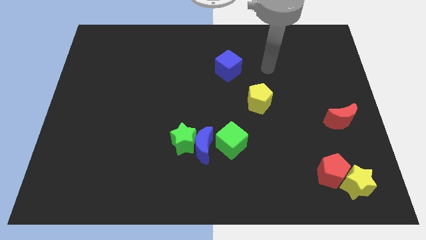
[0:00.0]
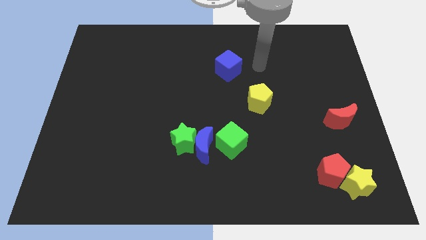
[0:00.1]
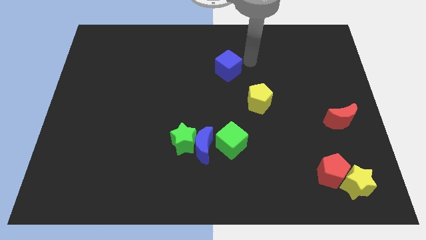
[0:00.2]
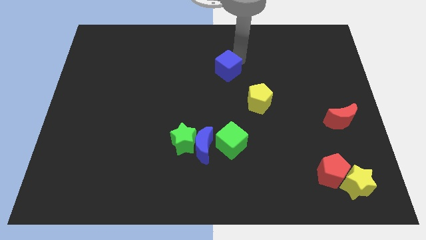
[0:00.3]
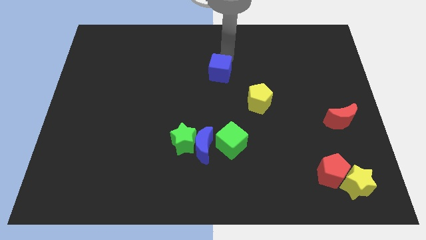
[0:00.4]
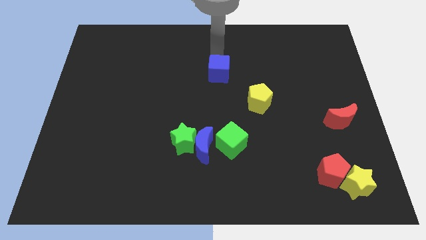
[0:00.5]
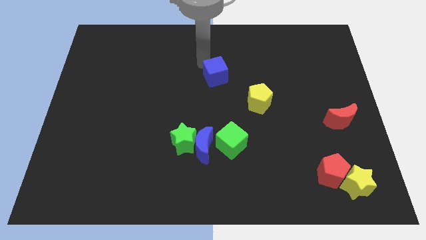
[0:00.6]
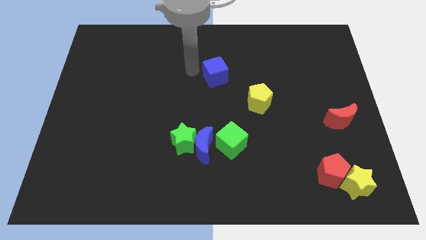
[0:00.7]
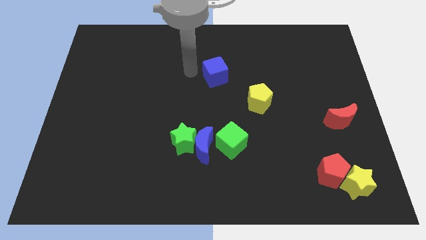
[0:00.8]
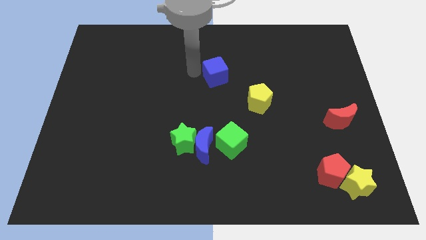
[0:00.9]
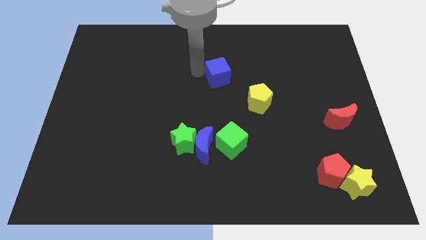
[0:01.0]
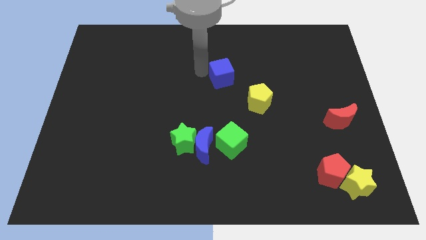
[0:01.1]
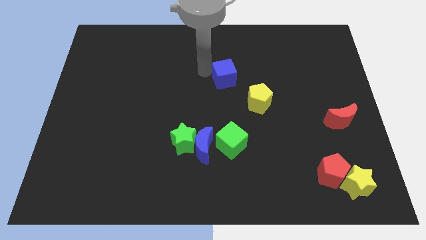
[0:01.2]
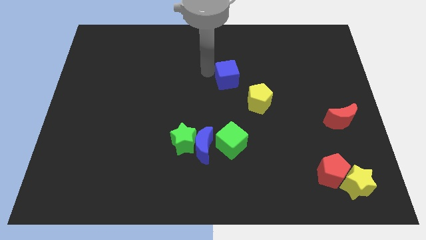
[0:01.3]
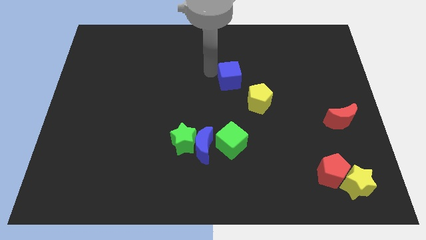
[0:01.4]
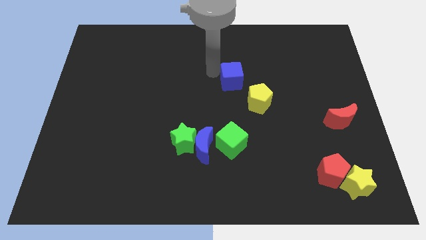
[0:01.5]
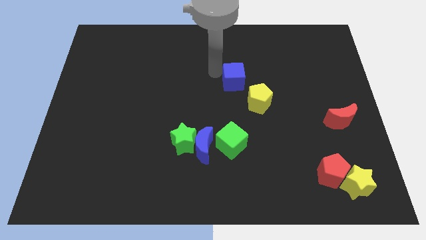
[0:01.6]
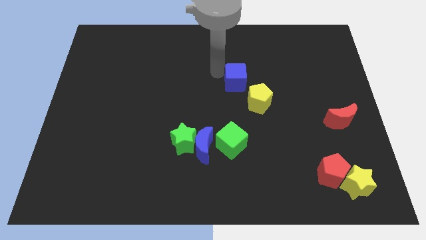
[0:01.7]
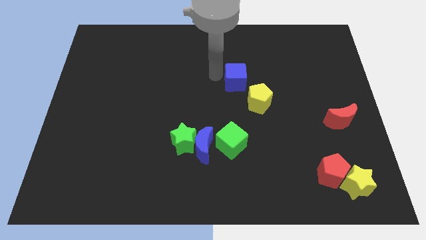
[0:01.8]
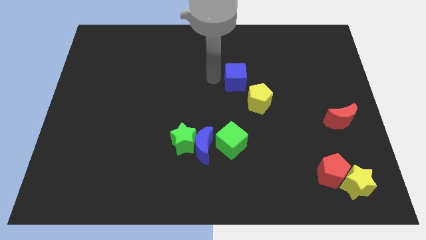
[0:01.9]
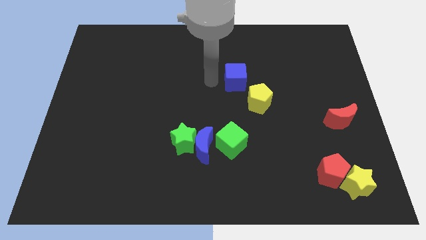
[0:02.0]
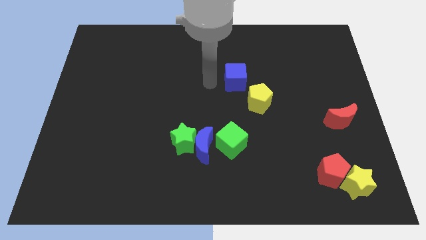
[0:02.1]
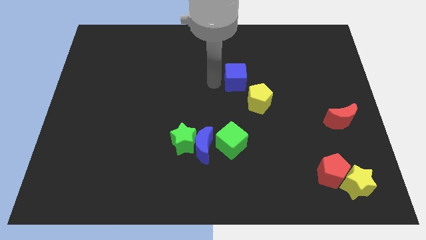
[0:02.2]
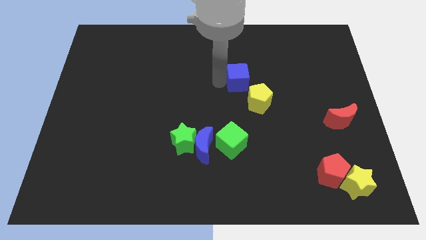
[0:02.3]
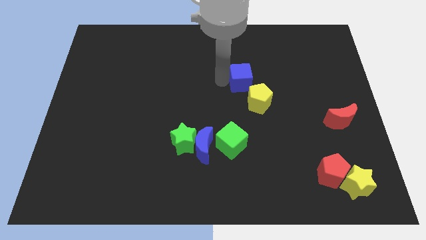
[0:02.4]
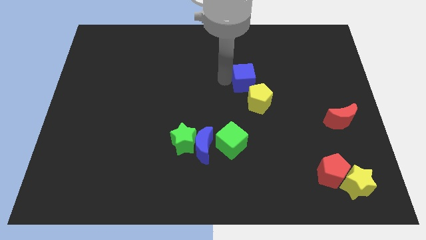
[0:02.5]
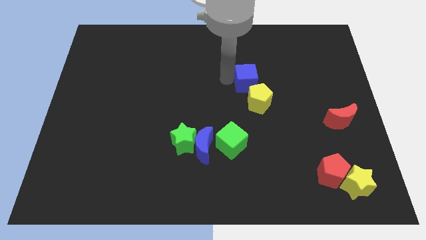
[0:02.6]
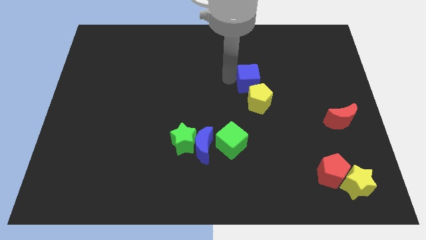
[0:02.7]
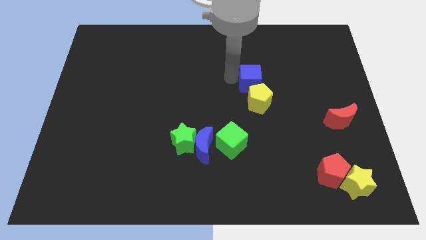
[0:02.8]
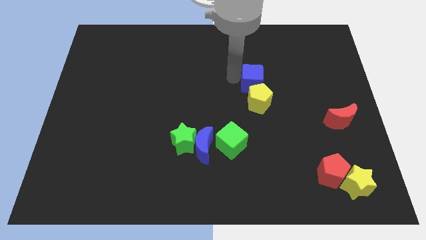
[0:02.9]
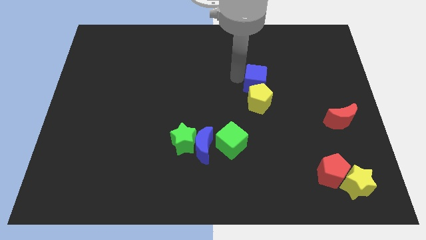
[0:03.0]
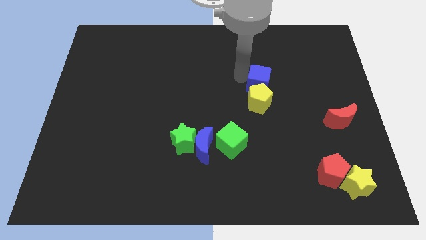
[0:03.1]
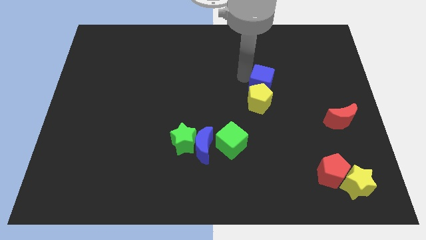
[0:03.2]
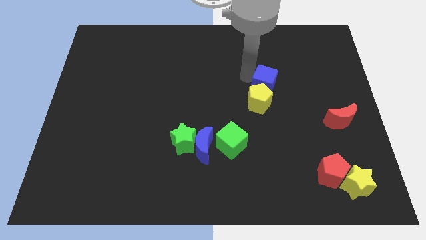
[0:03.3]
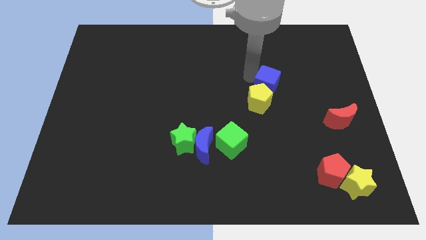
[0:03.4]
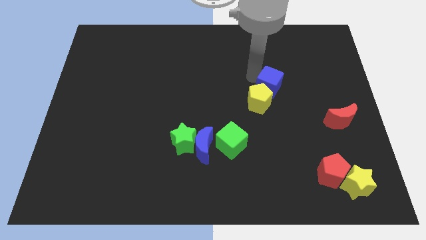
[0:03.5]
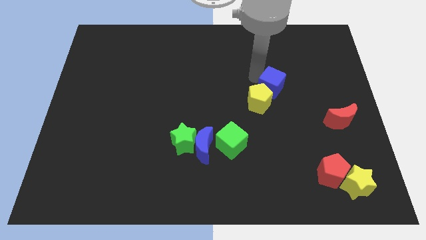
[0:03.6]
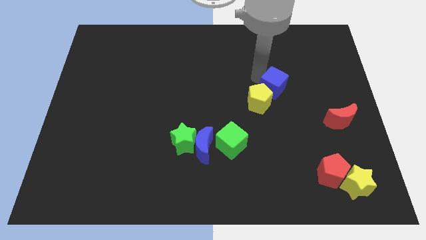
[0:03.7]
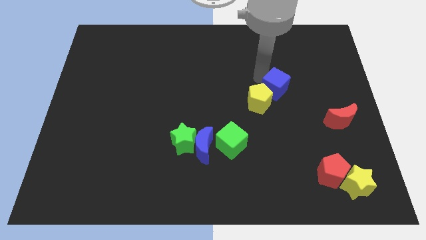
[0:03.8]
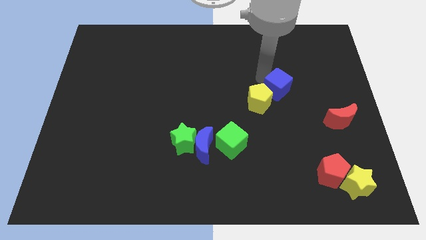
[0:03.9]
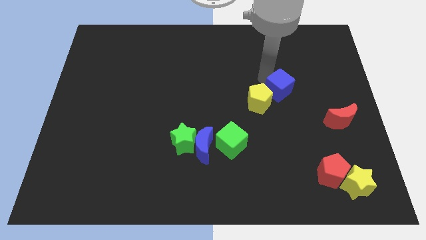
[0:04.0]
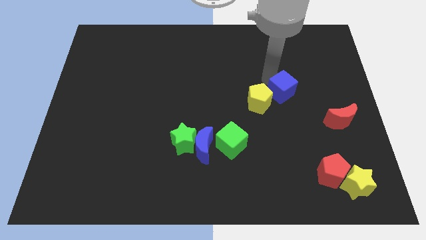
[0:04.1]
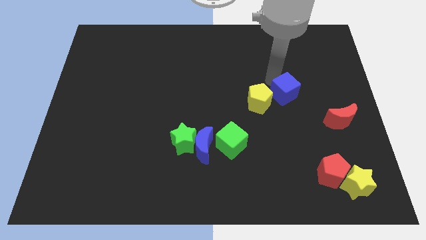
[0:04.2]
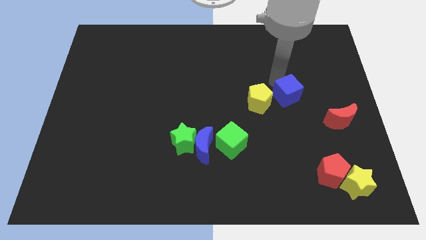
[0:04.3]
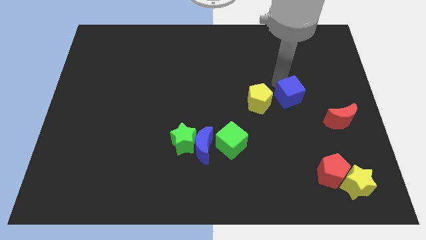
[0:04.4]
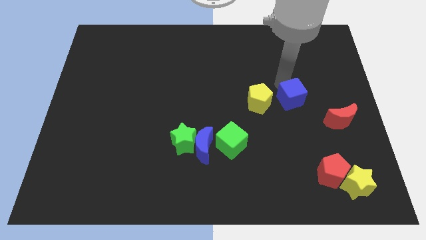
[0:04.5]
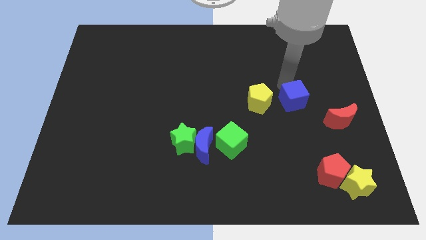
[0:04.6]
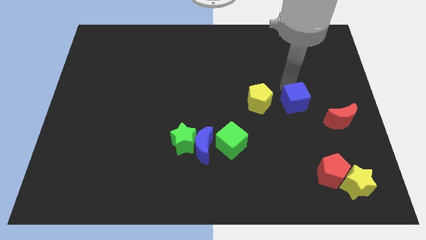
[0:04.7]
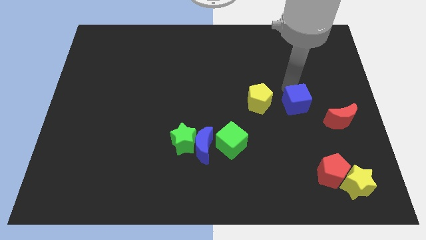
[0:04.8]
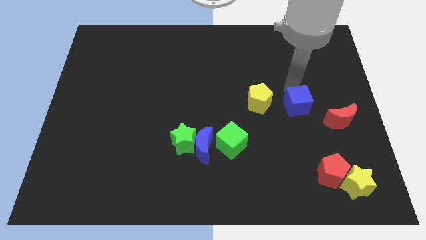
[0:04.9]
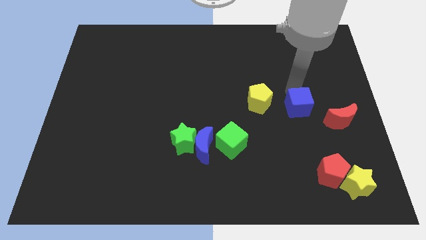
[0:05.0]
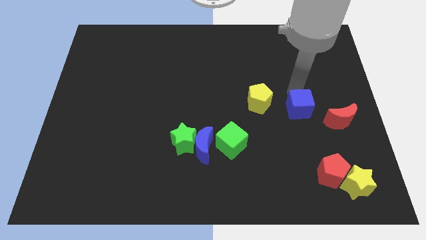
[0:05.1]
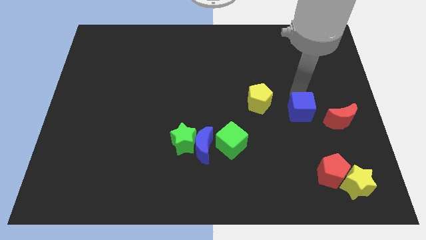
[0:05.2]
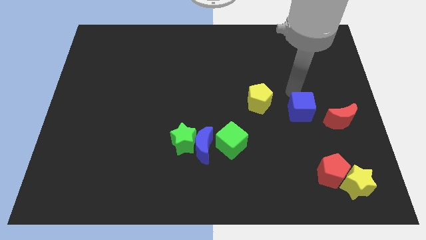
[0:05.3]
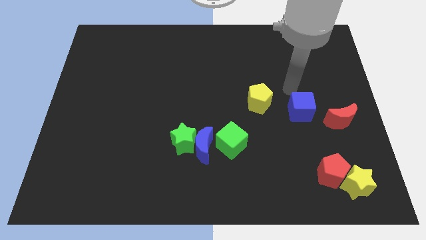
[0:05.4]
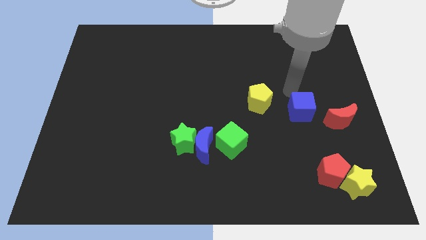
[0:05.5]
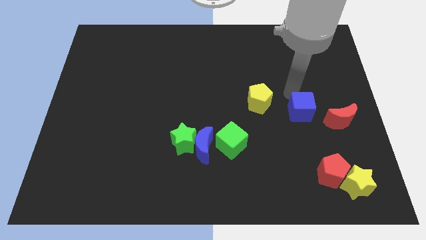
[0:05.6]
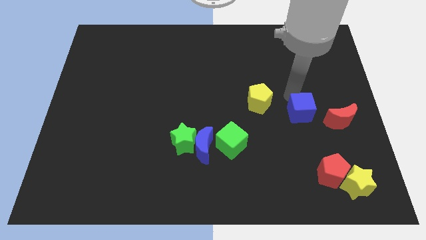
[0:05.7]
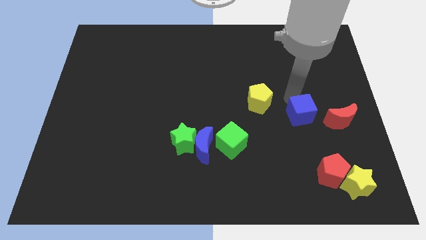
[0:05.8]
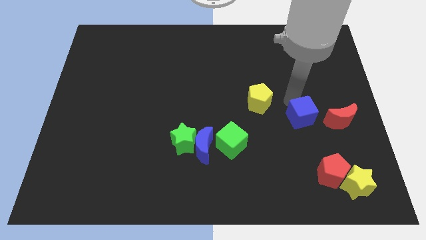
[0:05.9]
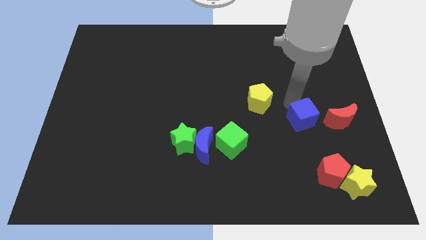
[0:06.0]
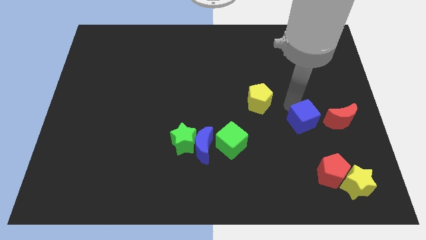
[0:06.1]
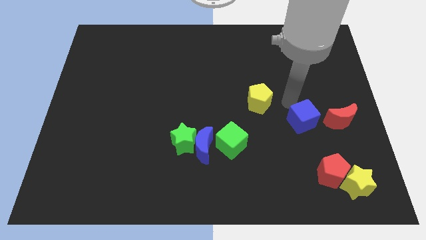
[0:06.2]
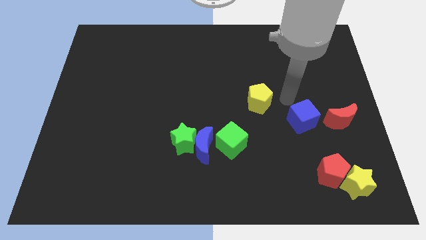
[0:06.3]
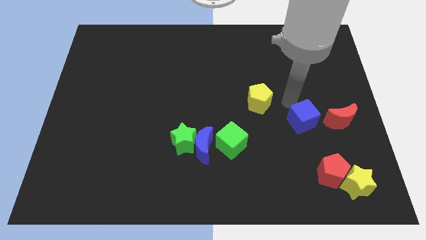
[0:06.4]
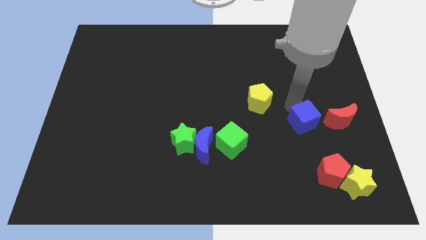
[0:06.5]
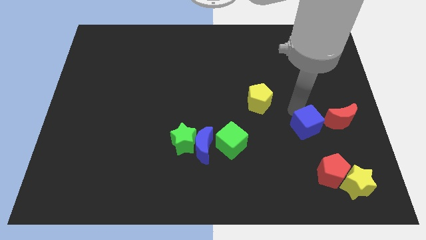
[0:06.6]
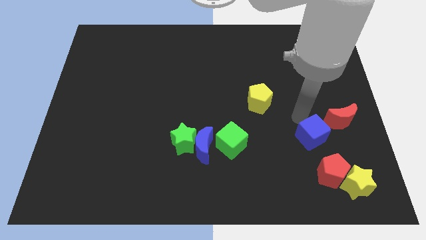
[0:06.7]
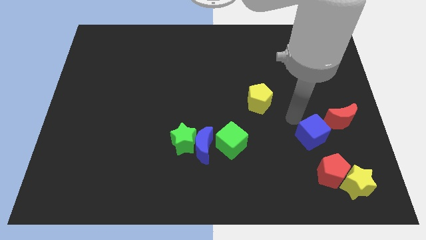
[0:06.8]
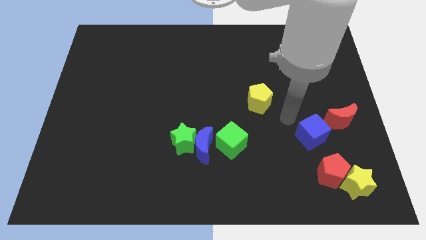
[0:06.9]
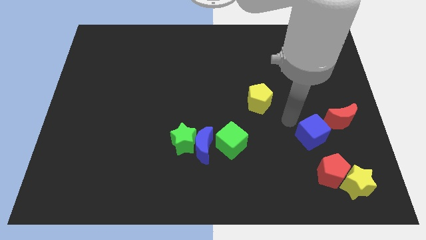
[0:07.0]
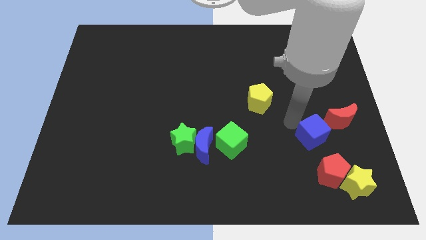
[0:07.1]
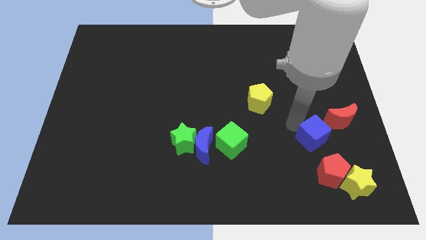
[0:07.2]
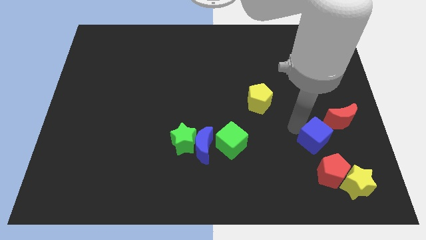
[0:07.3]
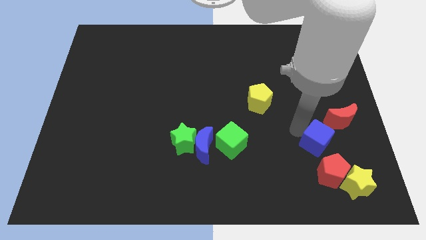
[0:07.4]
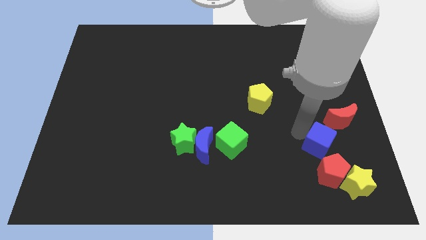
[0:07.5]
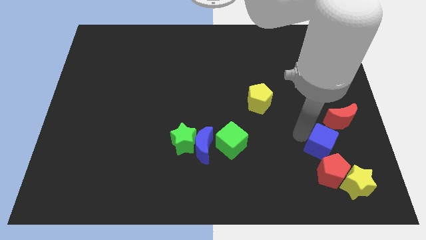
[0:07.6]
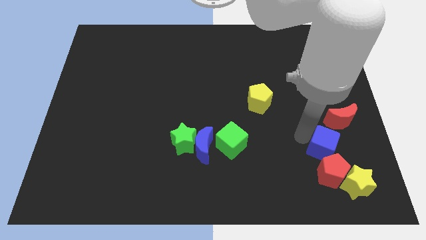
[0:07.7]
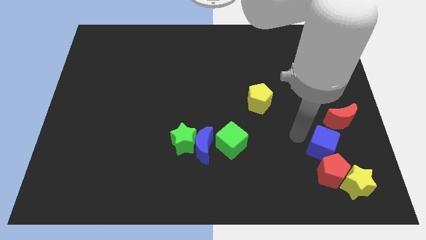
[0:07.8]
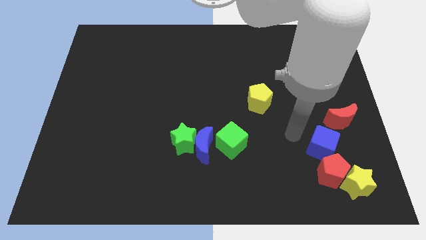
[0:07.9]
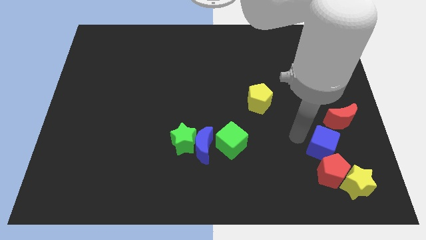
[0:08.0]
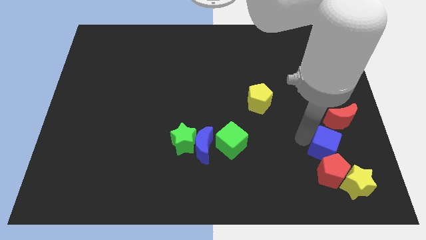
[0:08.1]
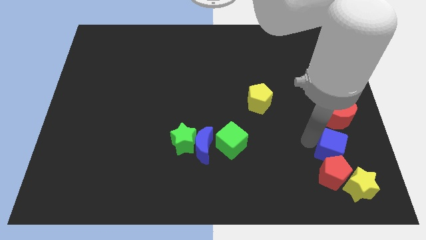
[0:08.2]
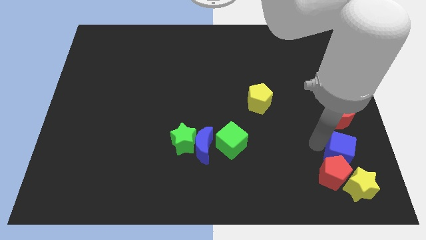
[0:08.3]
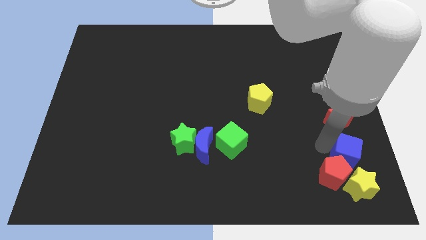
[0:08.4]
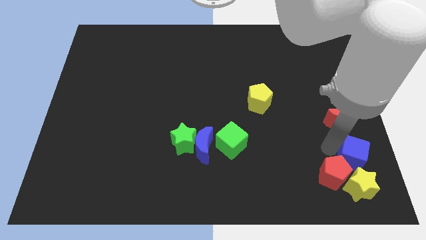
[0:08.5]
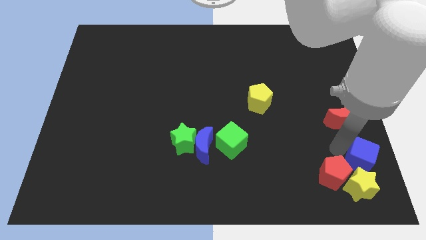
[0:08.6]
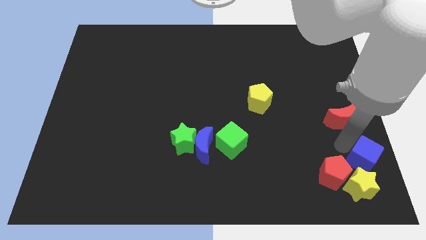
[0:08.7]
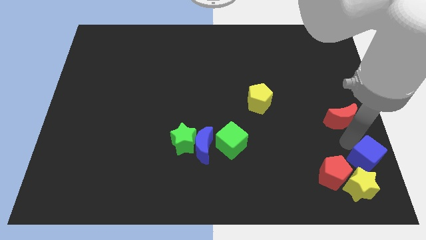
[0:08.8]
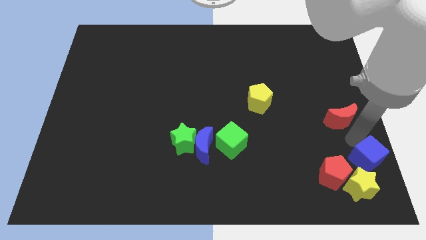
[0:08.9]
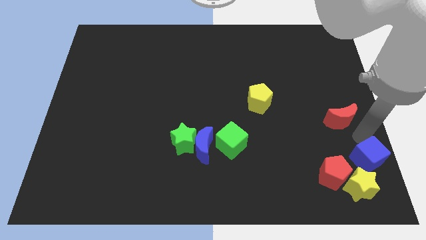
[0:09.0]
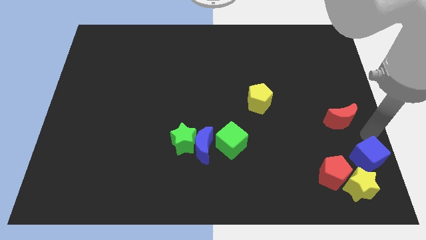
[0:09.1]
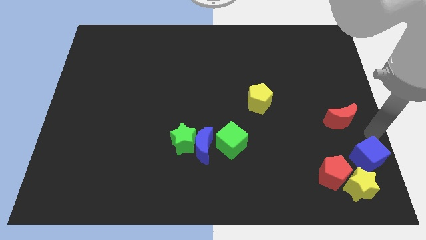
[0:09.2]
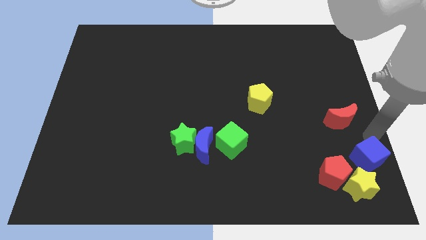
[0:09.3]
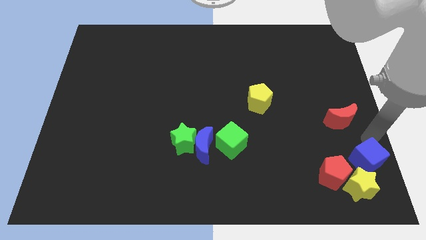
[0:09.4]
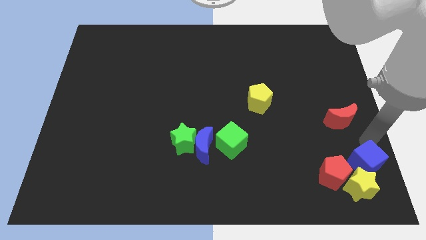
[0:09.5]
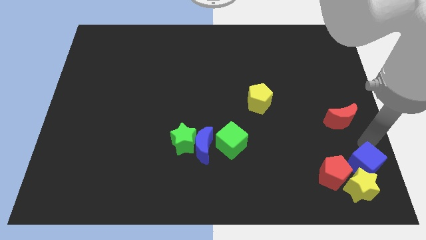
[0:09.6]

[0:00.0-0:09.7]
put the blue cube next to the yellow star
